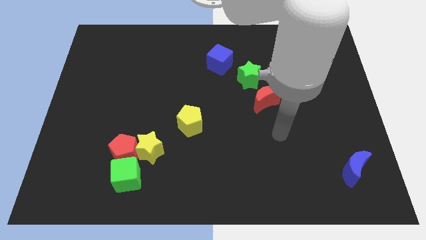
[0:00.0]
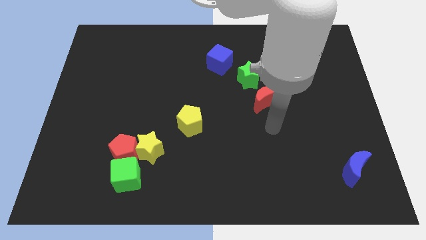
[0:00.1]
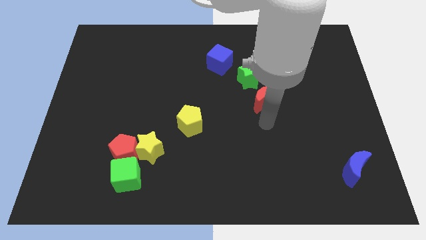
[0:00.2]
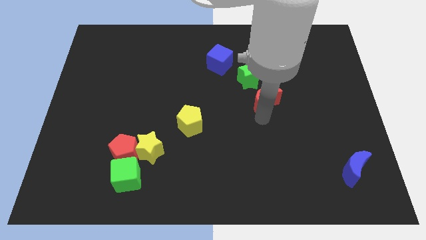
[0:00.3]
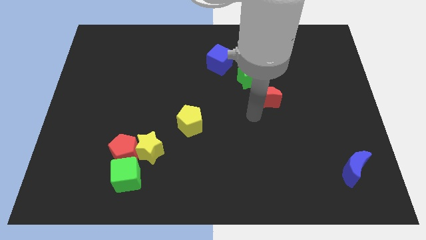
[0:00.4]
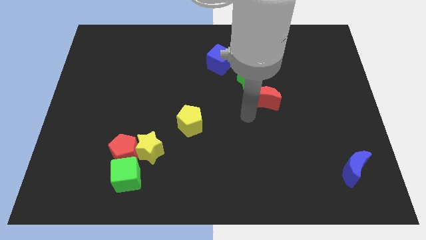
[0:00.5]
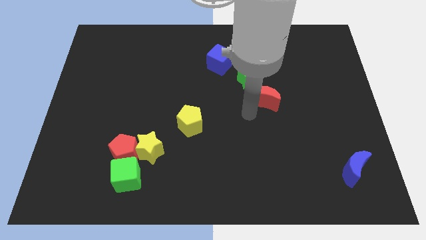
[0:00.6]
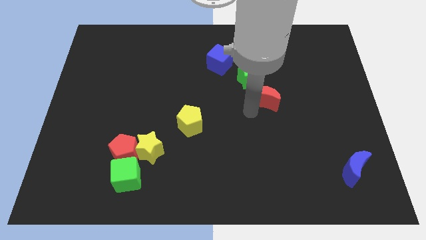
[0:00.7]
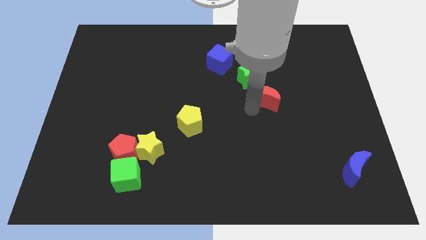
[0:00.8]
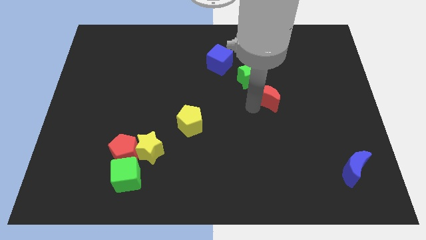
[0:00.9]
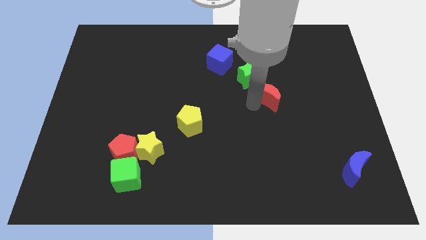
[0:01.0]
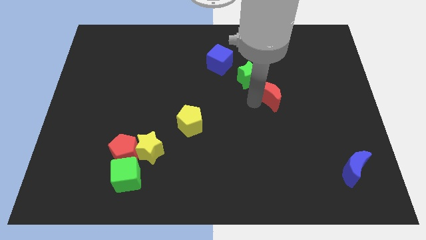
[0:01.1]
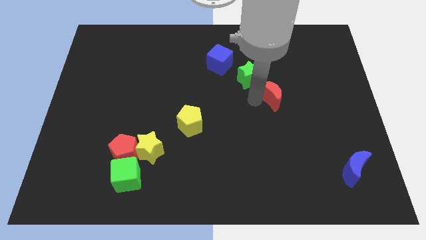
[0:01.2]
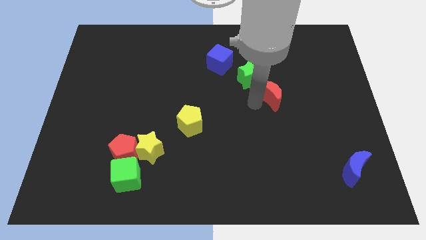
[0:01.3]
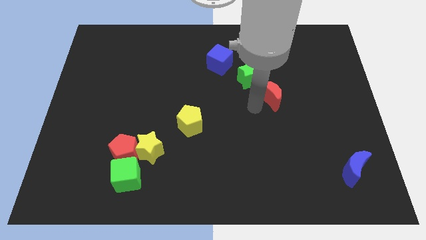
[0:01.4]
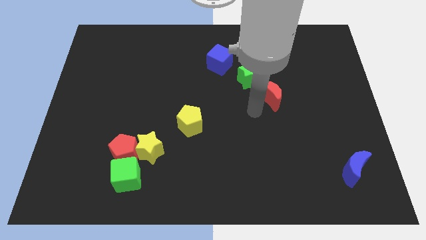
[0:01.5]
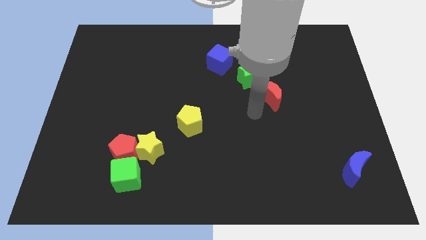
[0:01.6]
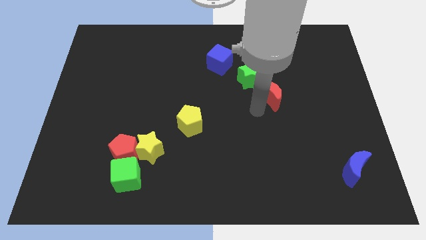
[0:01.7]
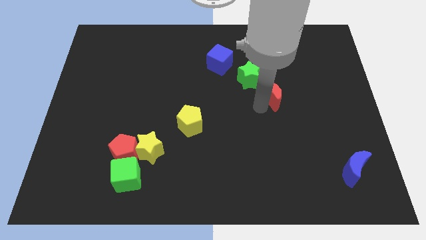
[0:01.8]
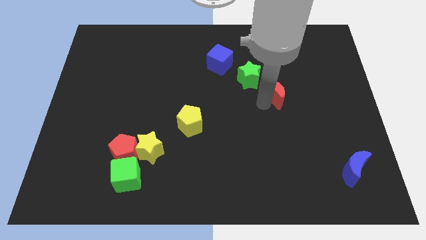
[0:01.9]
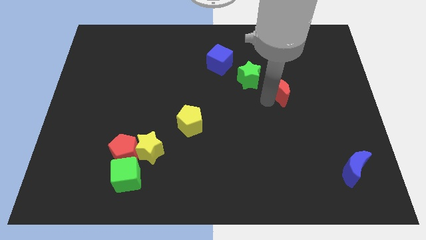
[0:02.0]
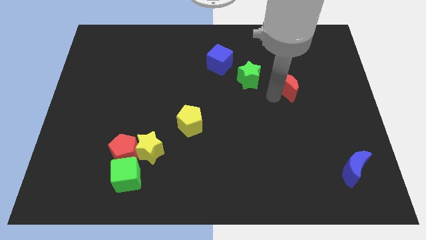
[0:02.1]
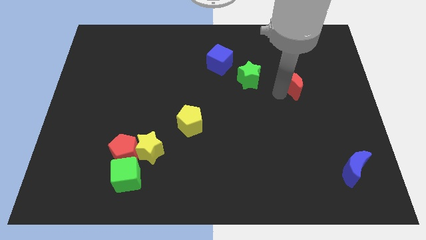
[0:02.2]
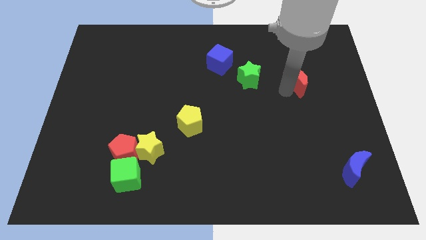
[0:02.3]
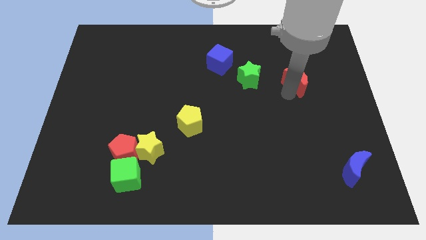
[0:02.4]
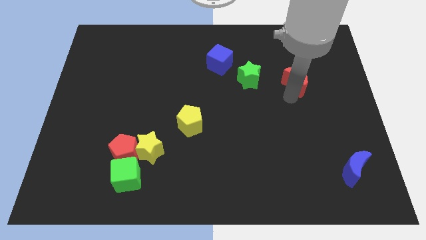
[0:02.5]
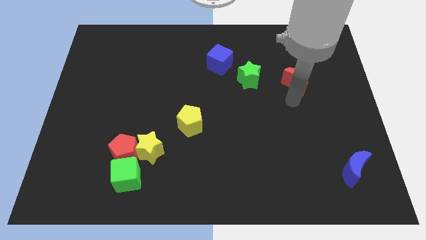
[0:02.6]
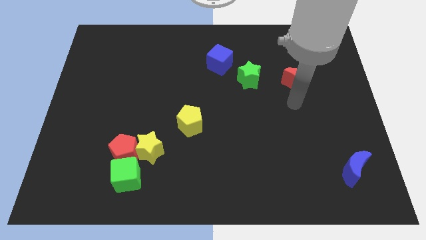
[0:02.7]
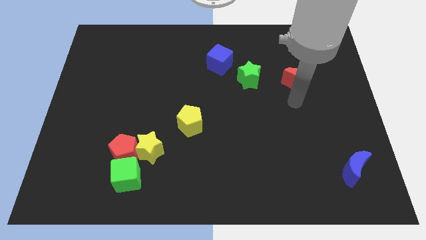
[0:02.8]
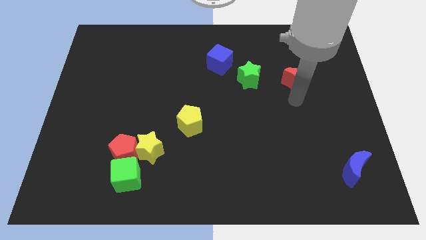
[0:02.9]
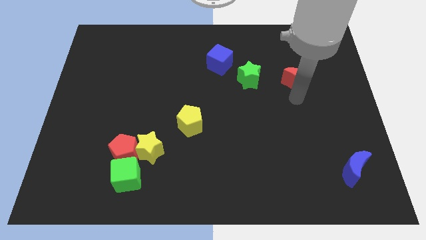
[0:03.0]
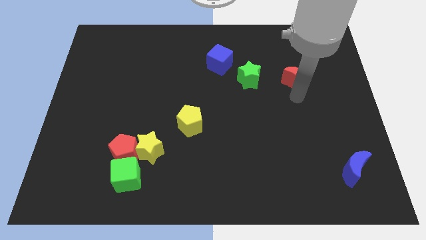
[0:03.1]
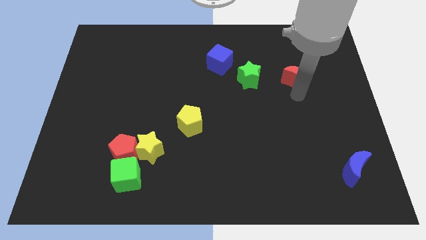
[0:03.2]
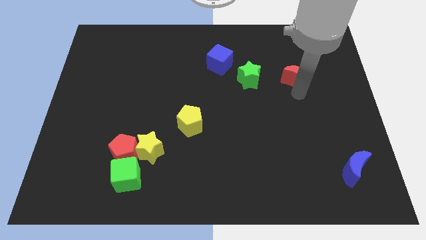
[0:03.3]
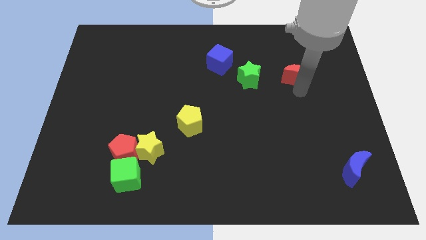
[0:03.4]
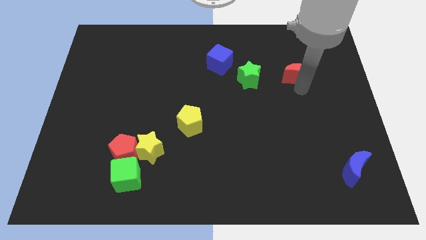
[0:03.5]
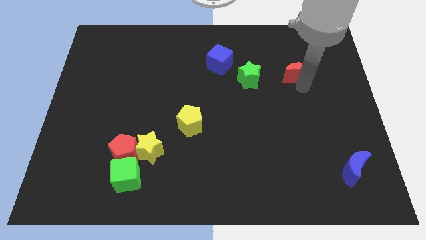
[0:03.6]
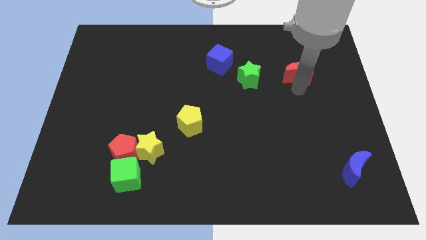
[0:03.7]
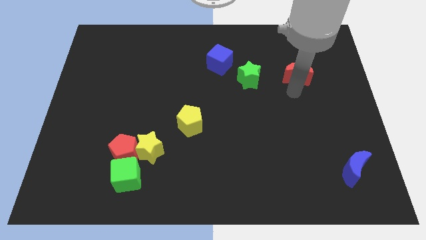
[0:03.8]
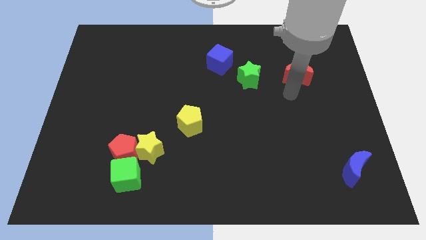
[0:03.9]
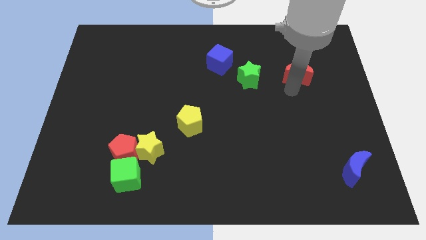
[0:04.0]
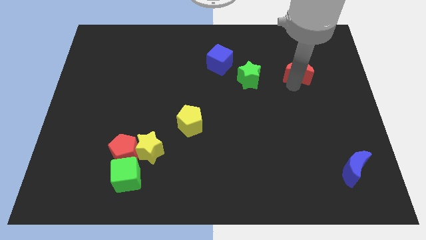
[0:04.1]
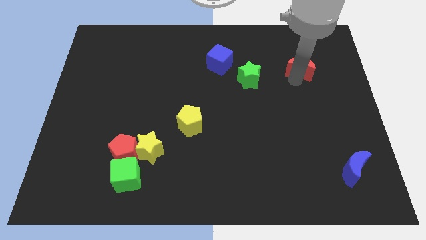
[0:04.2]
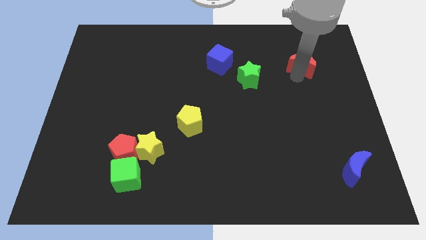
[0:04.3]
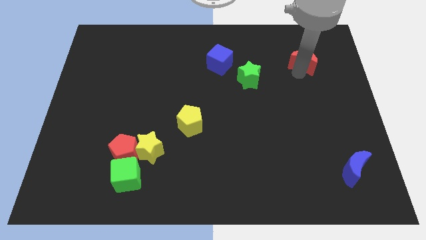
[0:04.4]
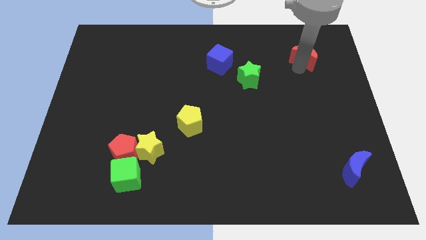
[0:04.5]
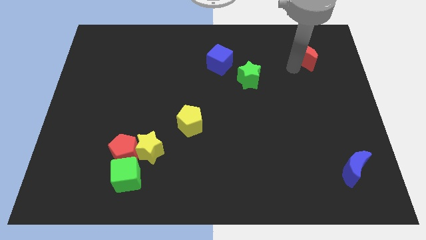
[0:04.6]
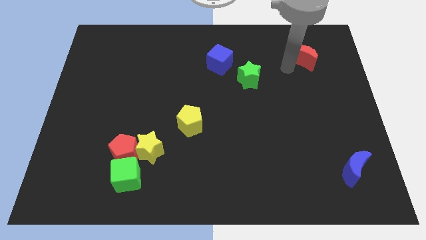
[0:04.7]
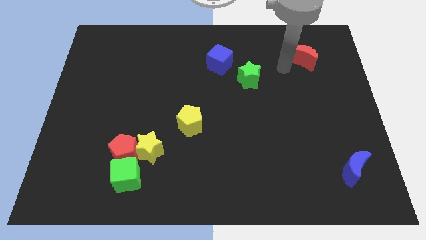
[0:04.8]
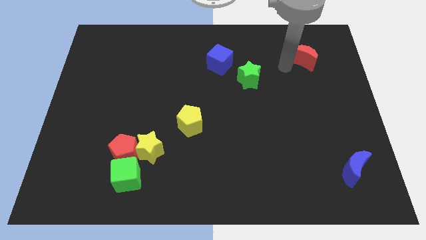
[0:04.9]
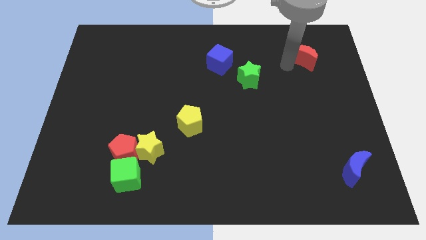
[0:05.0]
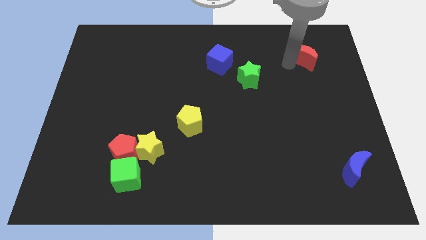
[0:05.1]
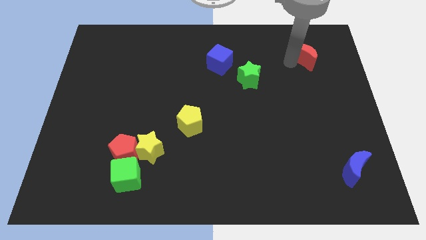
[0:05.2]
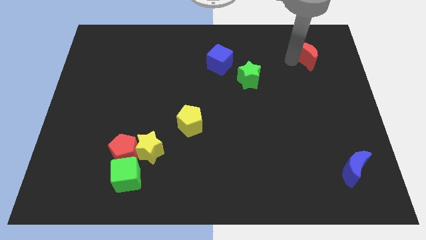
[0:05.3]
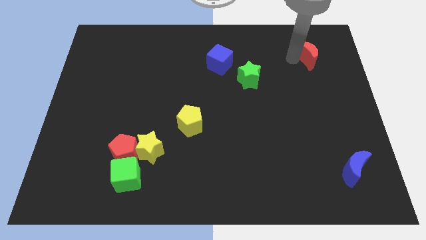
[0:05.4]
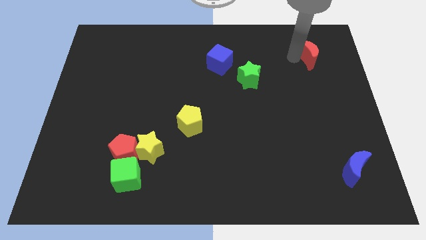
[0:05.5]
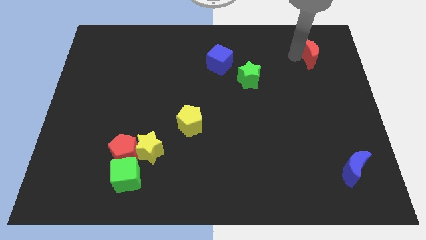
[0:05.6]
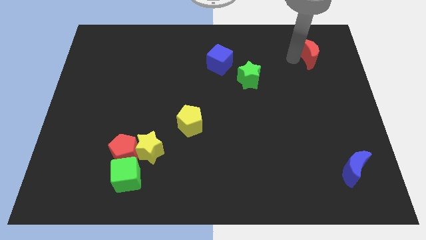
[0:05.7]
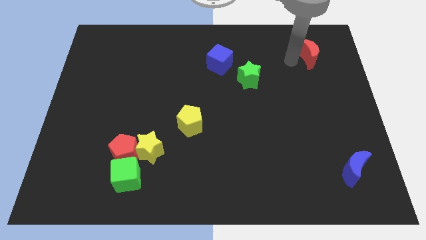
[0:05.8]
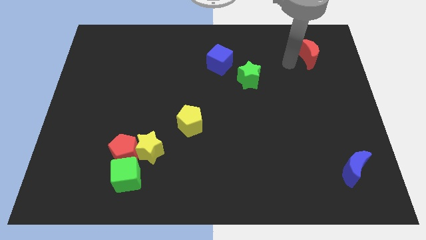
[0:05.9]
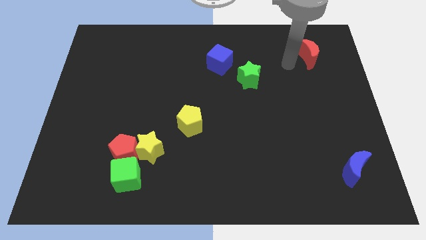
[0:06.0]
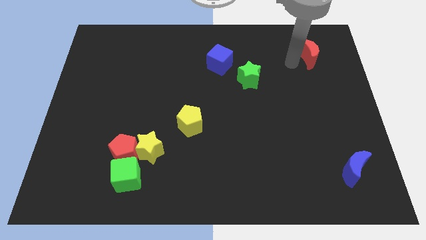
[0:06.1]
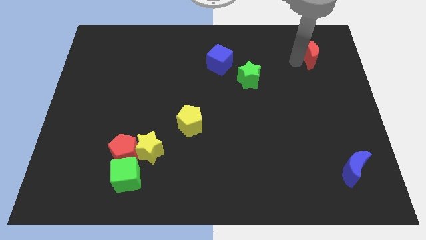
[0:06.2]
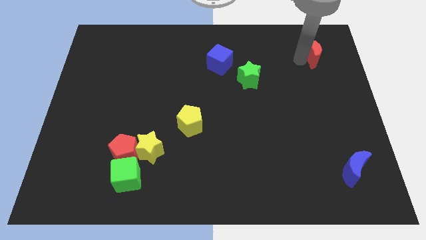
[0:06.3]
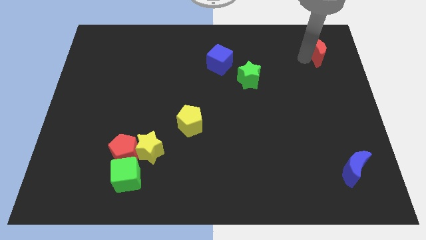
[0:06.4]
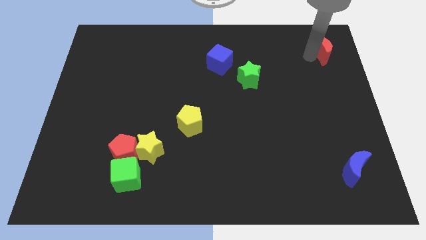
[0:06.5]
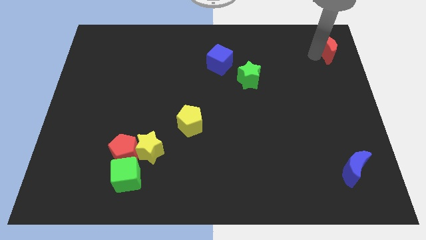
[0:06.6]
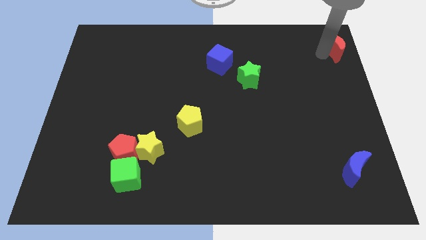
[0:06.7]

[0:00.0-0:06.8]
put the red moon to the top right corner

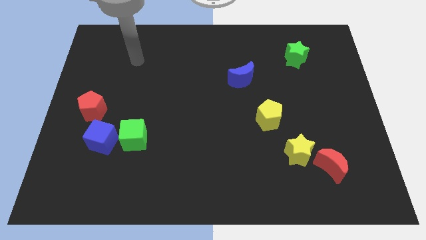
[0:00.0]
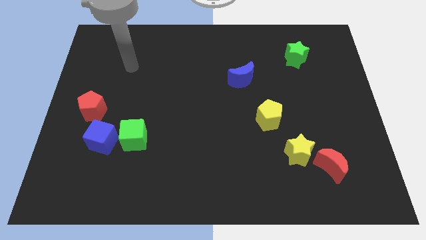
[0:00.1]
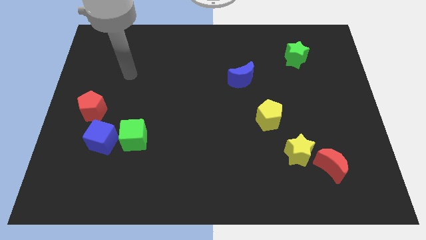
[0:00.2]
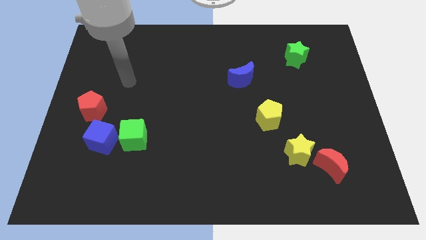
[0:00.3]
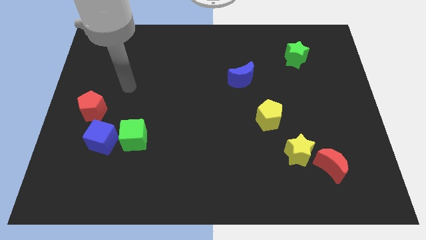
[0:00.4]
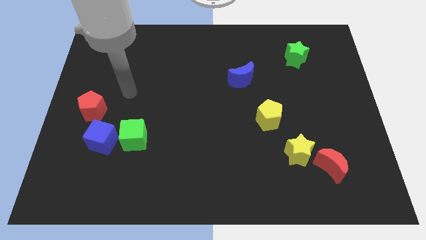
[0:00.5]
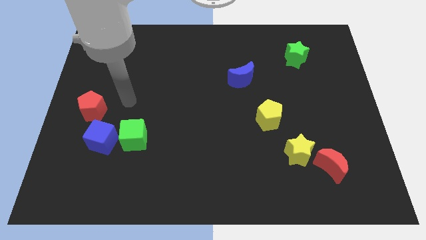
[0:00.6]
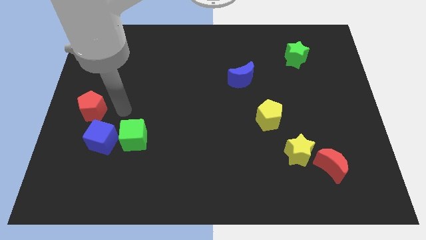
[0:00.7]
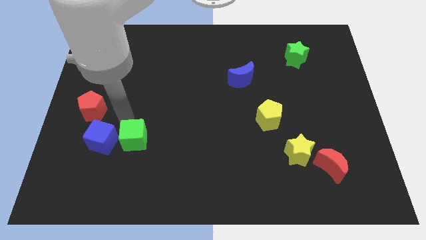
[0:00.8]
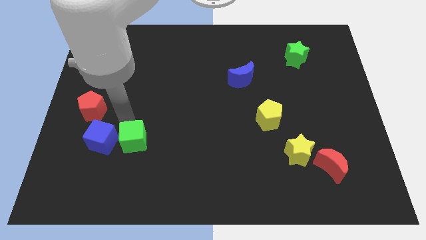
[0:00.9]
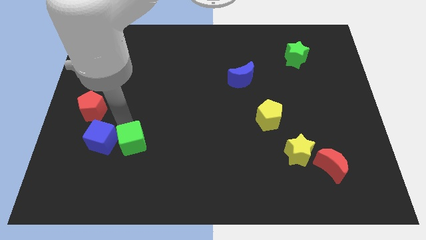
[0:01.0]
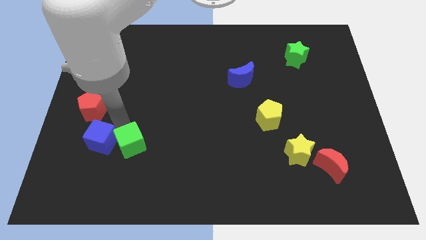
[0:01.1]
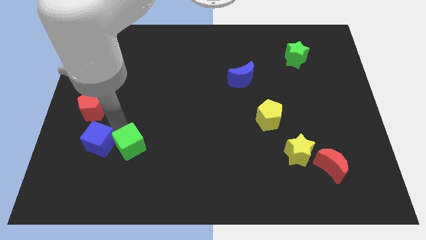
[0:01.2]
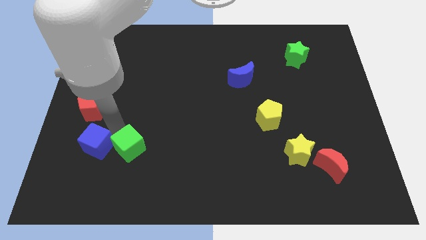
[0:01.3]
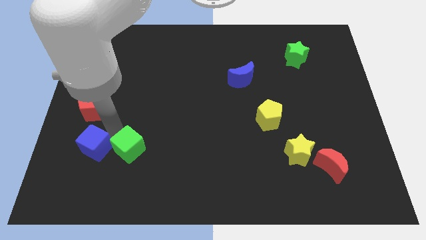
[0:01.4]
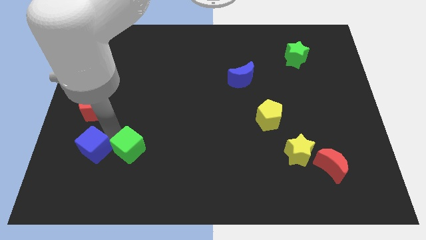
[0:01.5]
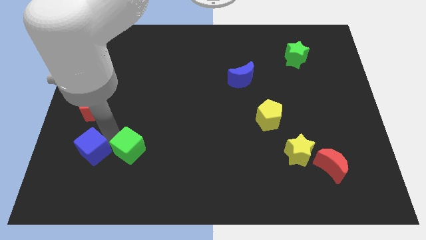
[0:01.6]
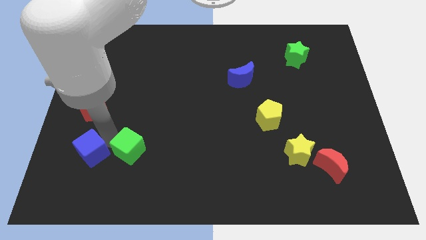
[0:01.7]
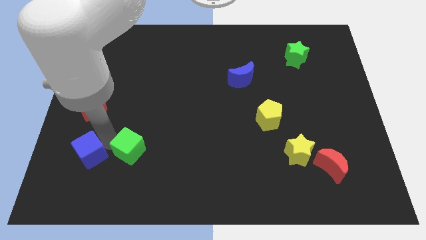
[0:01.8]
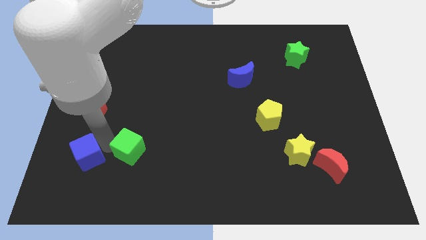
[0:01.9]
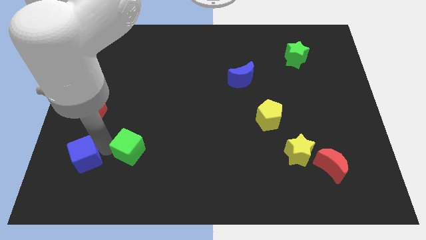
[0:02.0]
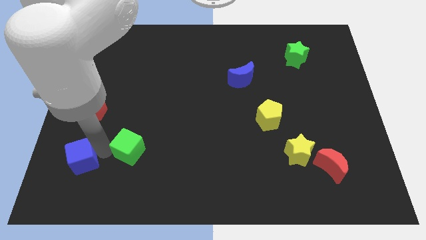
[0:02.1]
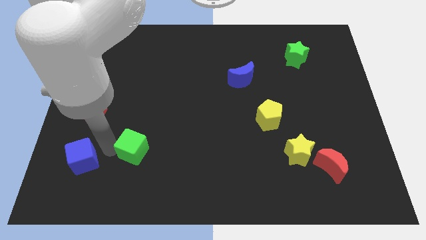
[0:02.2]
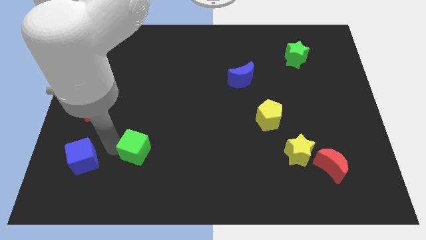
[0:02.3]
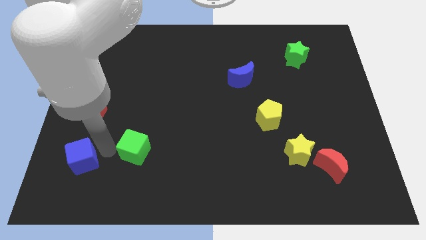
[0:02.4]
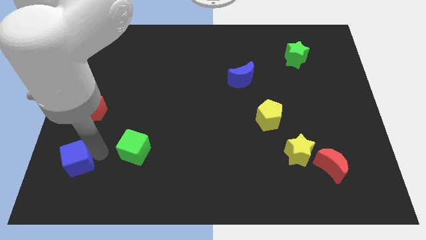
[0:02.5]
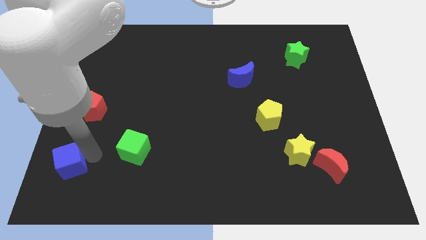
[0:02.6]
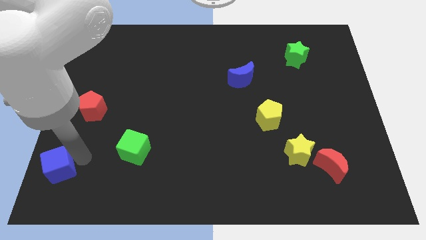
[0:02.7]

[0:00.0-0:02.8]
put the blue cube to the bottom left
